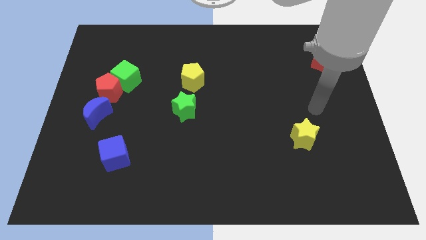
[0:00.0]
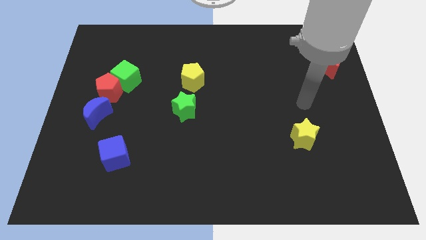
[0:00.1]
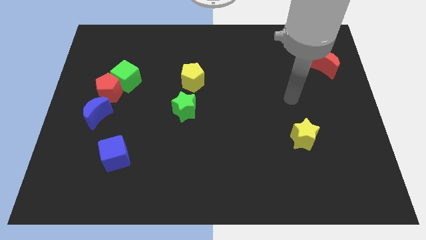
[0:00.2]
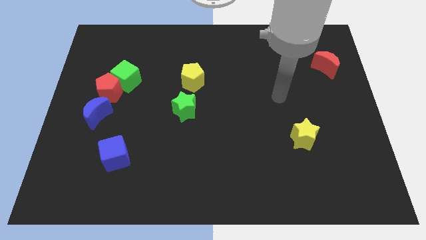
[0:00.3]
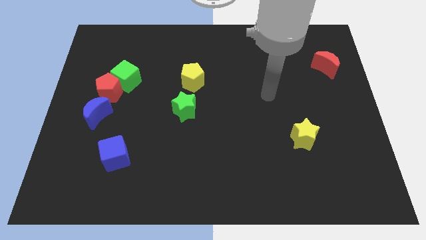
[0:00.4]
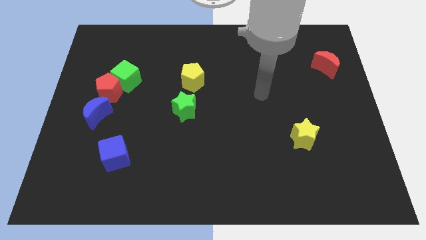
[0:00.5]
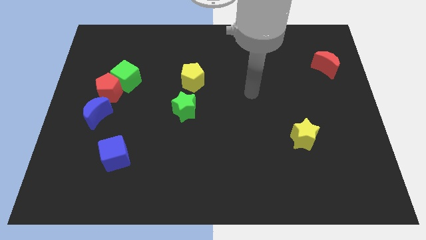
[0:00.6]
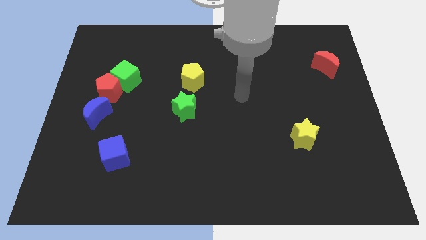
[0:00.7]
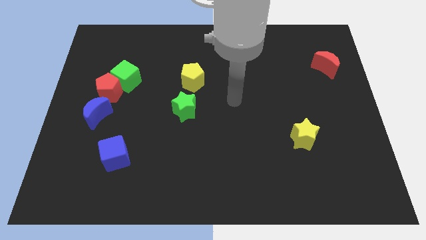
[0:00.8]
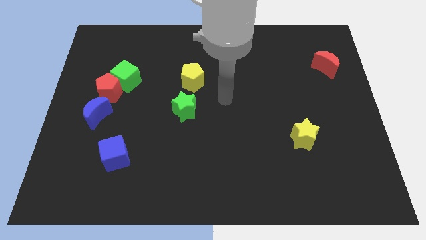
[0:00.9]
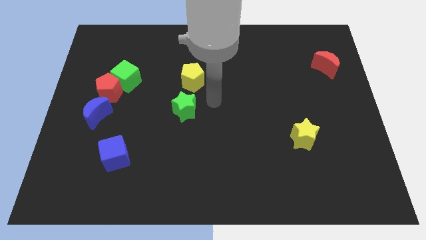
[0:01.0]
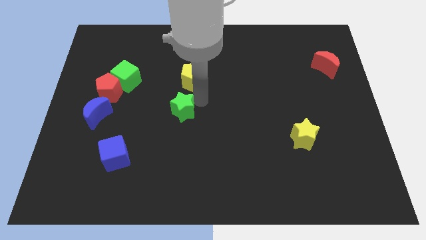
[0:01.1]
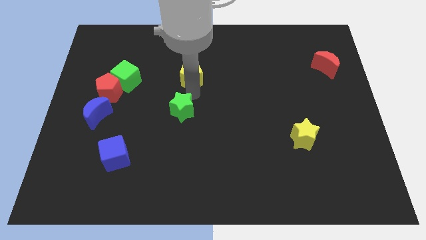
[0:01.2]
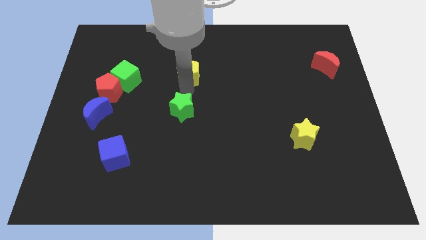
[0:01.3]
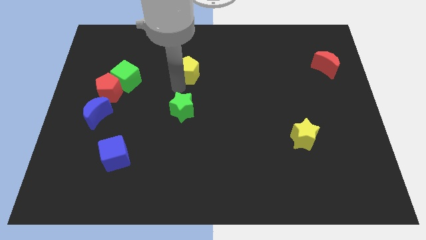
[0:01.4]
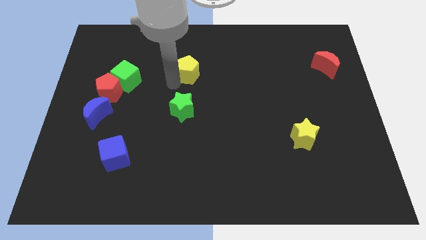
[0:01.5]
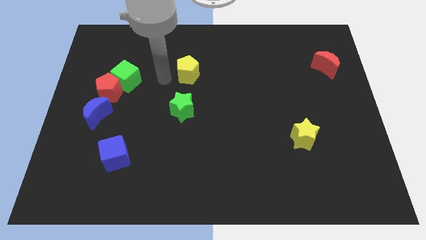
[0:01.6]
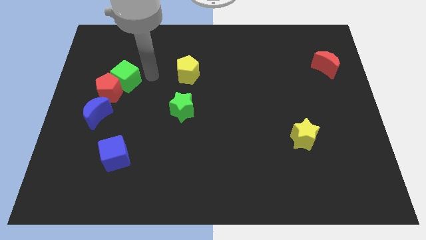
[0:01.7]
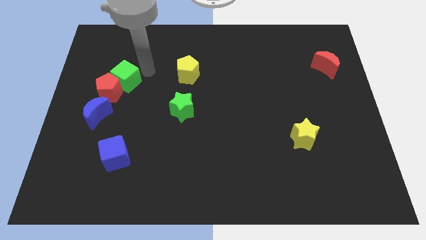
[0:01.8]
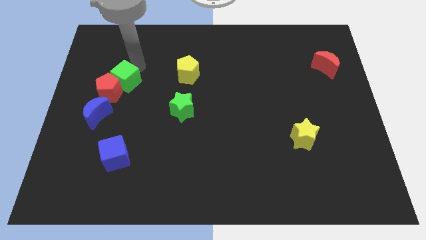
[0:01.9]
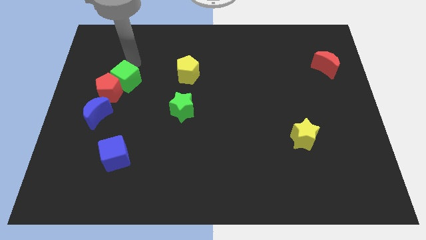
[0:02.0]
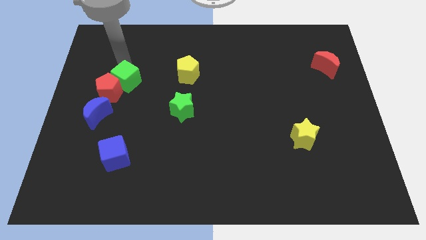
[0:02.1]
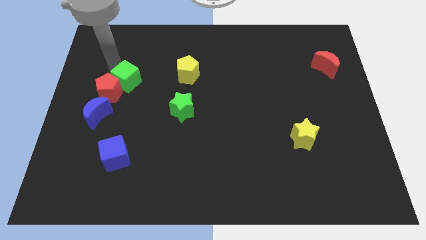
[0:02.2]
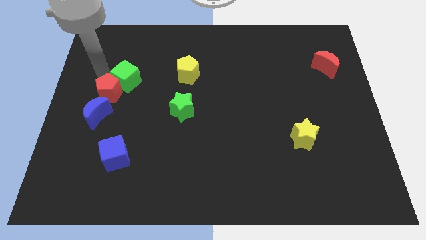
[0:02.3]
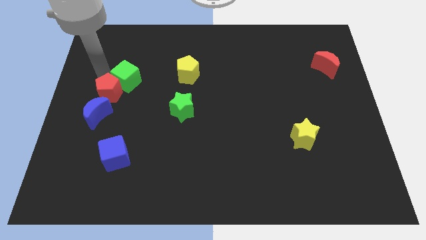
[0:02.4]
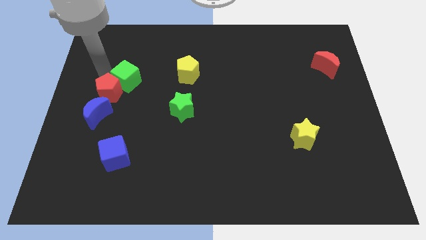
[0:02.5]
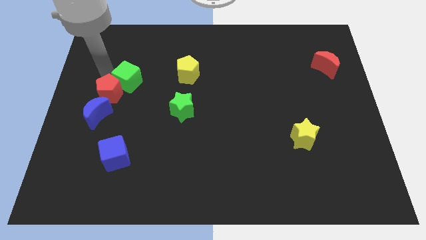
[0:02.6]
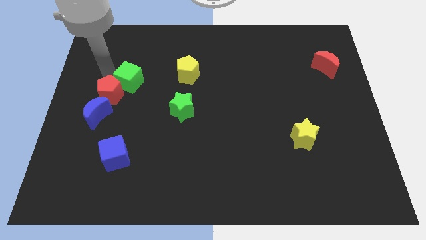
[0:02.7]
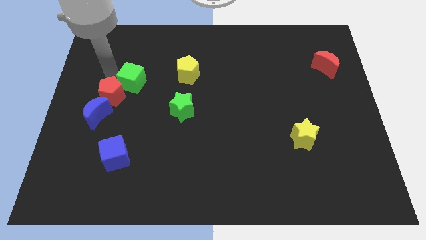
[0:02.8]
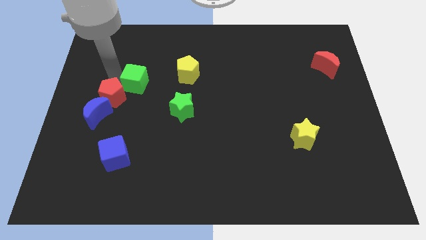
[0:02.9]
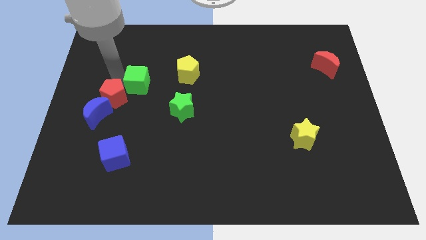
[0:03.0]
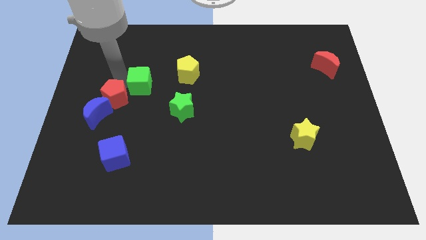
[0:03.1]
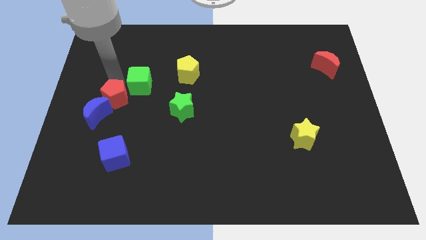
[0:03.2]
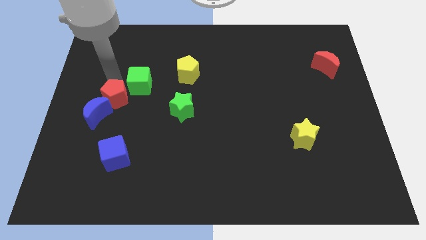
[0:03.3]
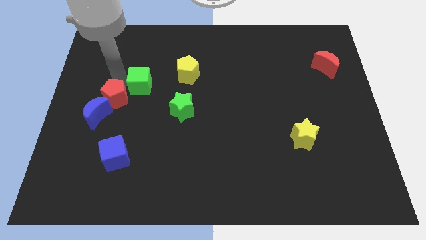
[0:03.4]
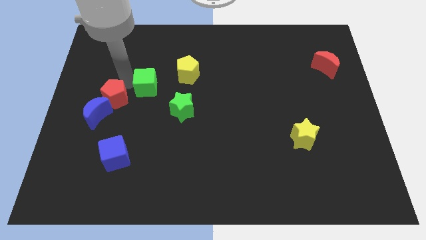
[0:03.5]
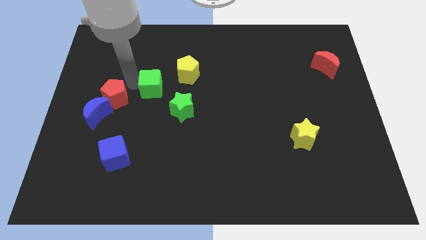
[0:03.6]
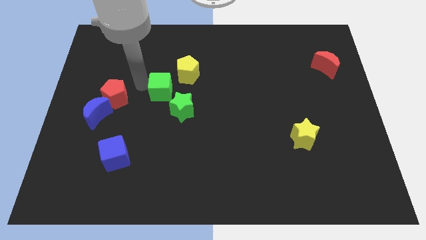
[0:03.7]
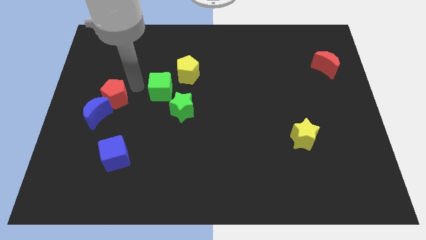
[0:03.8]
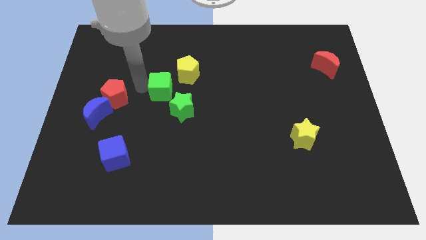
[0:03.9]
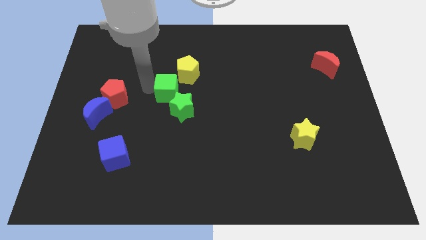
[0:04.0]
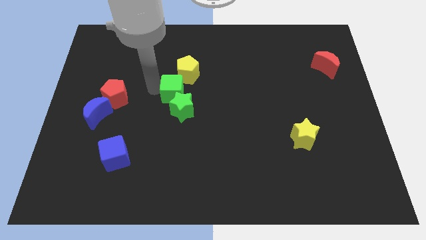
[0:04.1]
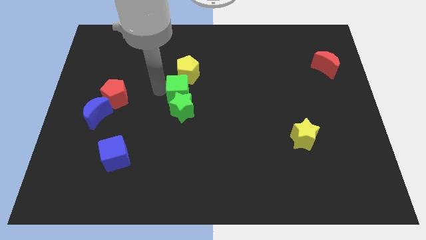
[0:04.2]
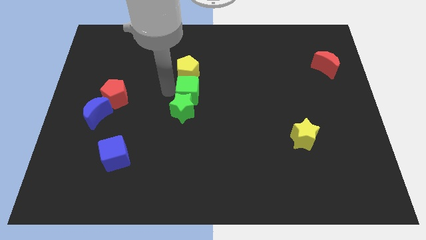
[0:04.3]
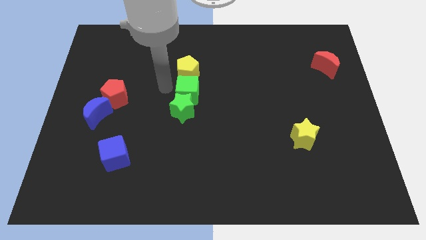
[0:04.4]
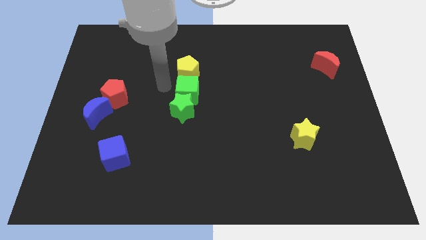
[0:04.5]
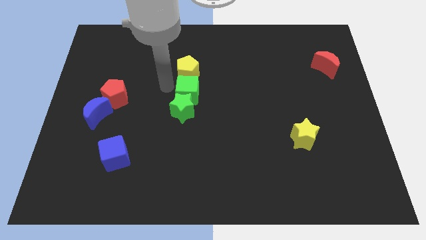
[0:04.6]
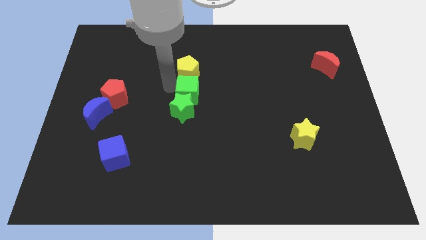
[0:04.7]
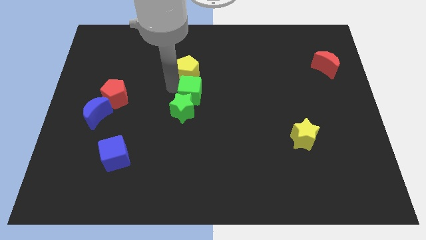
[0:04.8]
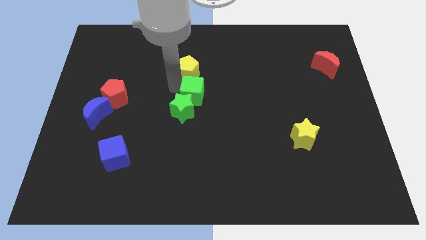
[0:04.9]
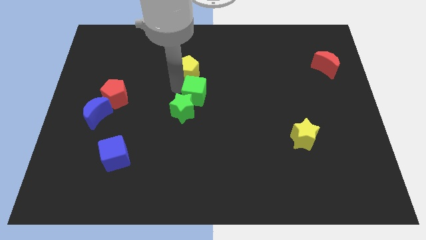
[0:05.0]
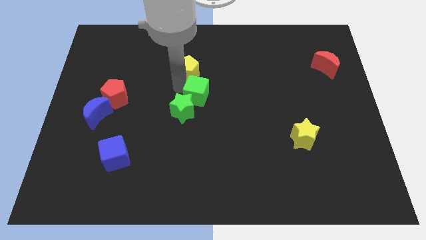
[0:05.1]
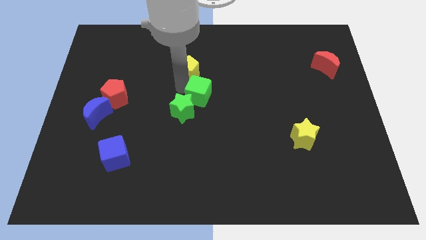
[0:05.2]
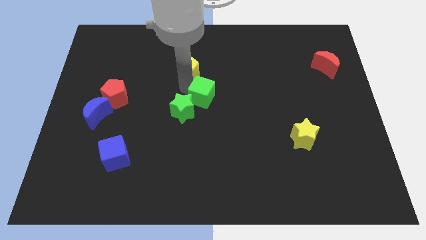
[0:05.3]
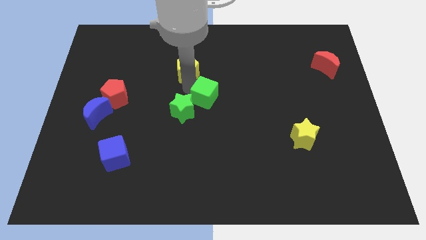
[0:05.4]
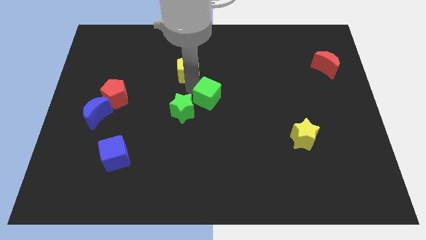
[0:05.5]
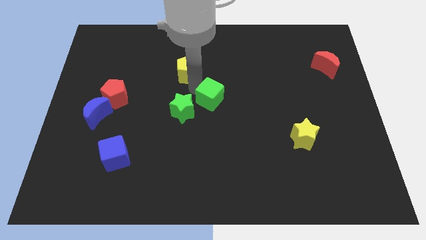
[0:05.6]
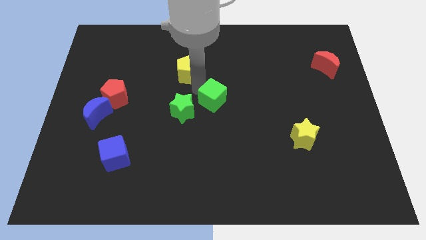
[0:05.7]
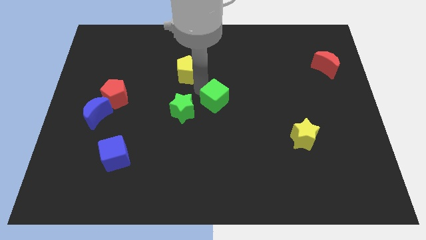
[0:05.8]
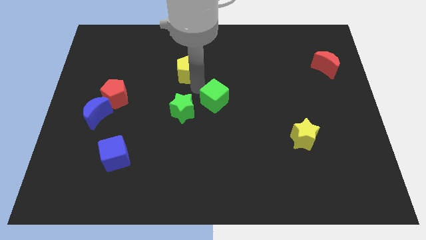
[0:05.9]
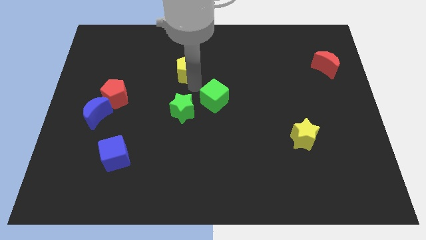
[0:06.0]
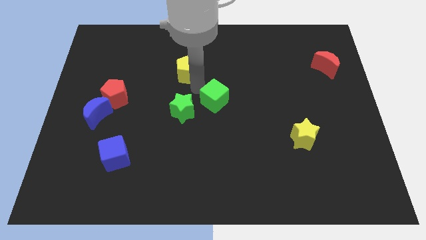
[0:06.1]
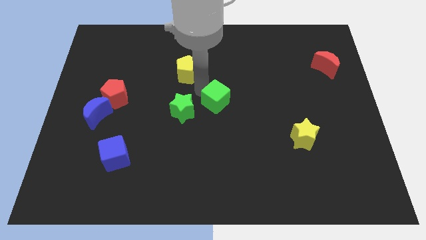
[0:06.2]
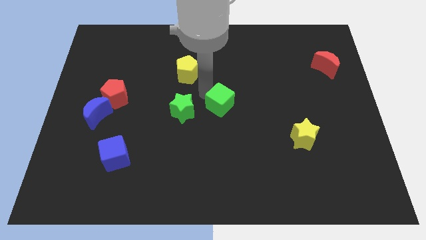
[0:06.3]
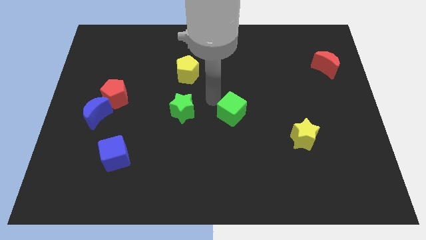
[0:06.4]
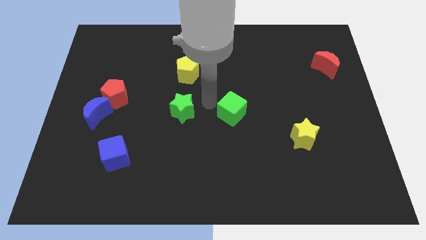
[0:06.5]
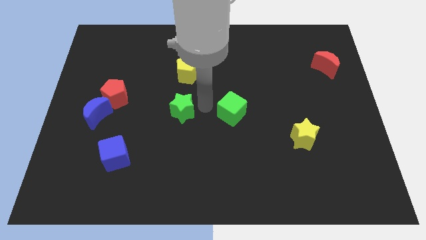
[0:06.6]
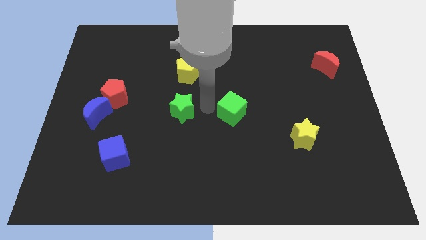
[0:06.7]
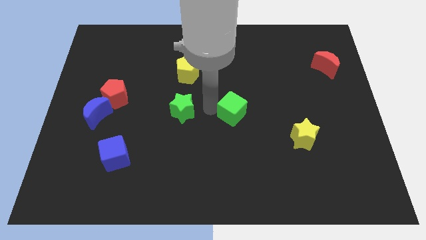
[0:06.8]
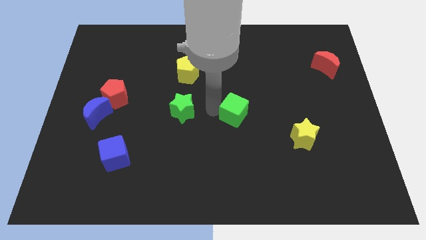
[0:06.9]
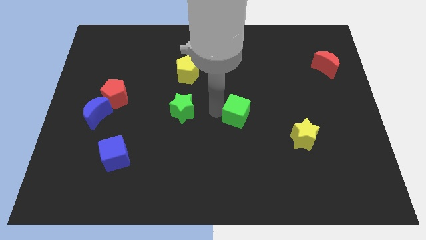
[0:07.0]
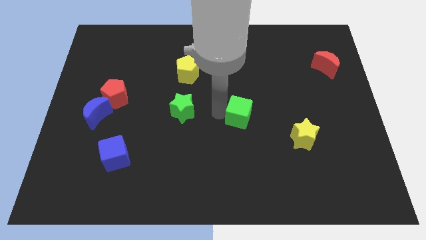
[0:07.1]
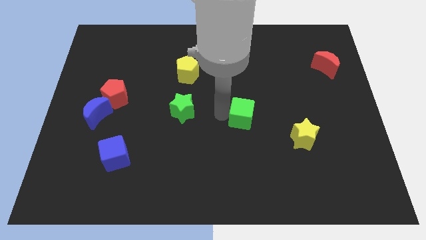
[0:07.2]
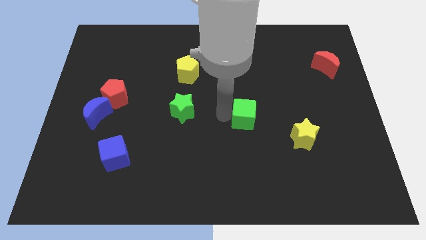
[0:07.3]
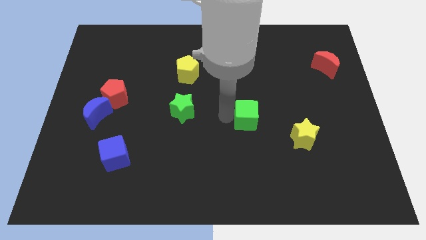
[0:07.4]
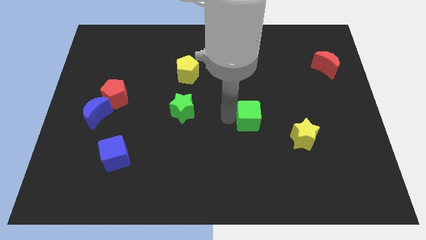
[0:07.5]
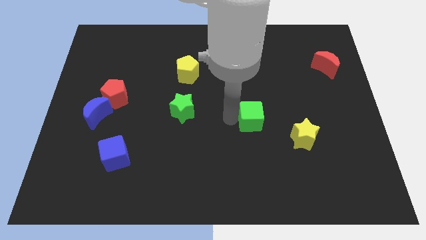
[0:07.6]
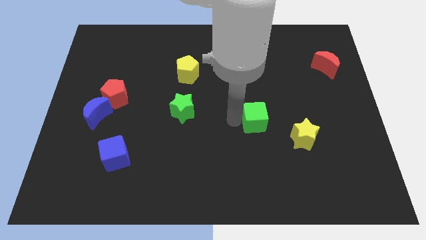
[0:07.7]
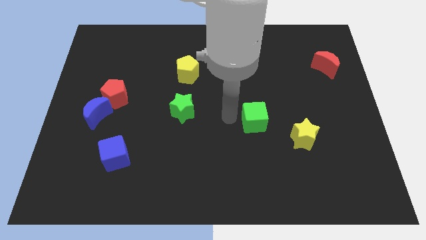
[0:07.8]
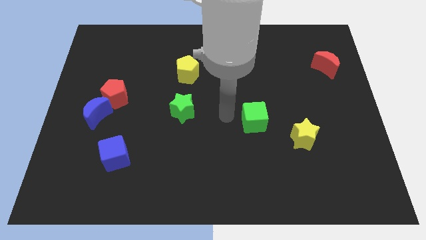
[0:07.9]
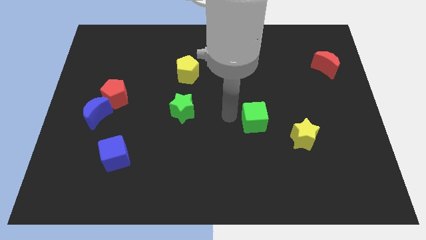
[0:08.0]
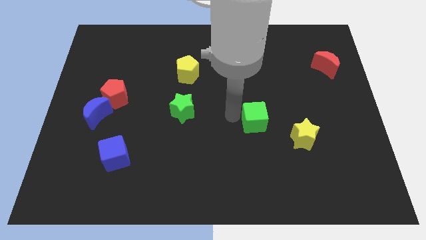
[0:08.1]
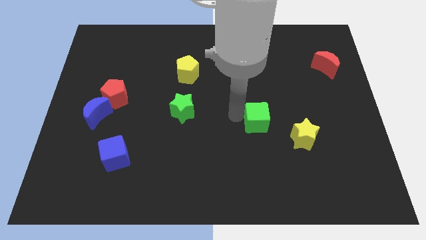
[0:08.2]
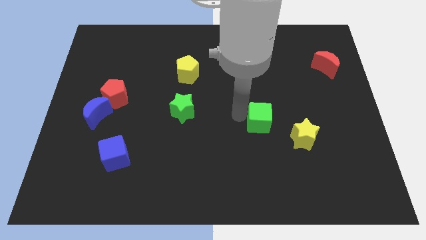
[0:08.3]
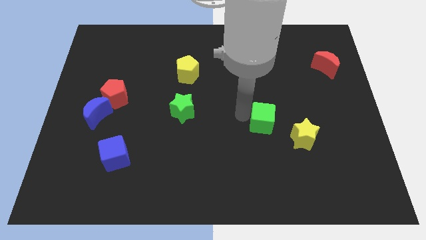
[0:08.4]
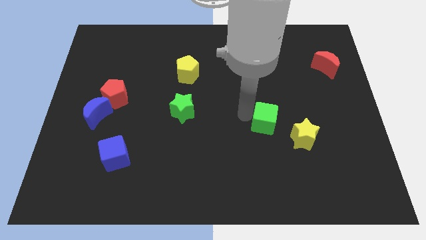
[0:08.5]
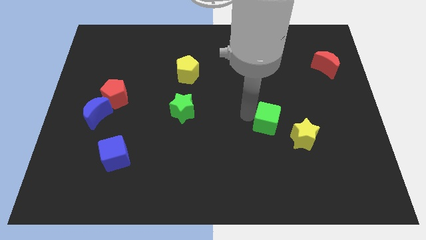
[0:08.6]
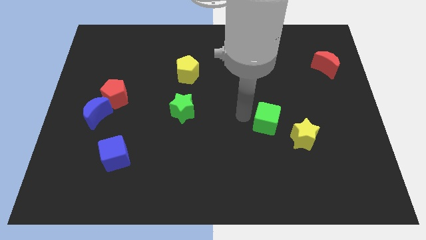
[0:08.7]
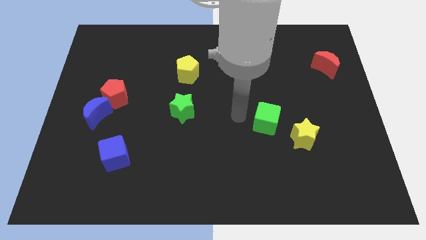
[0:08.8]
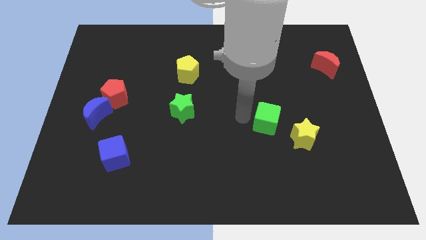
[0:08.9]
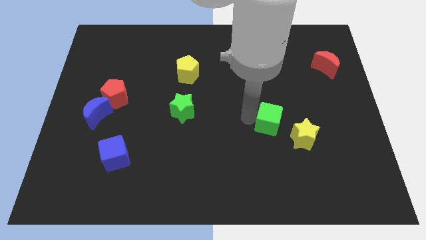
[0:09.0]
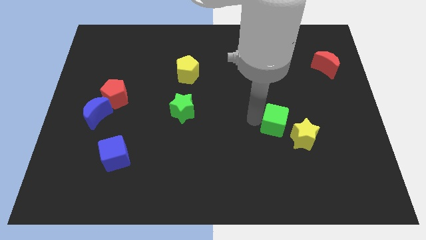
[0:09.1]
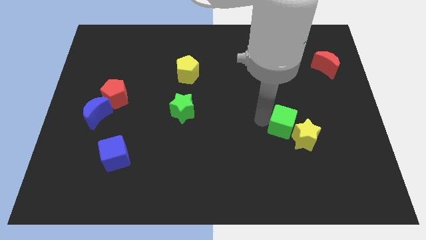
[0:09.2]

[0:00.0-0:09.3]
slide the green cube next to the yellow star
